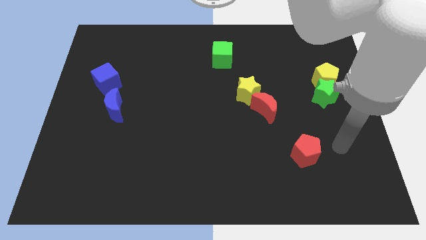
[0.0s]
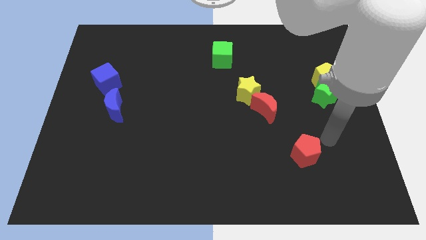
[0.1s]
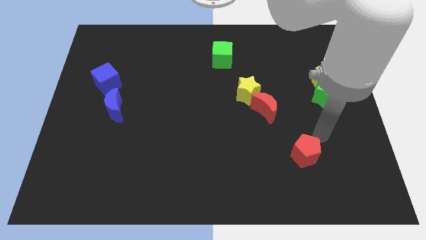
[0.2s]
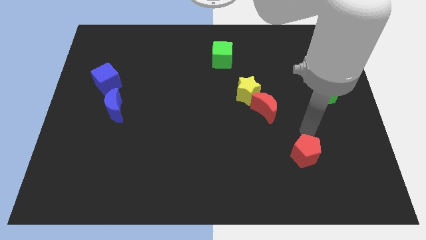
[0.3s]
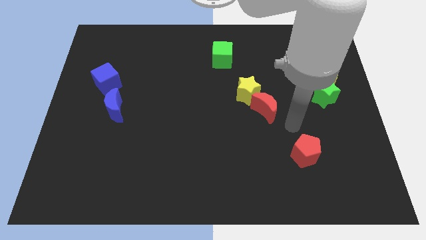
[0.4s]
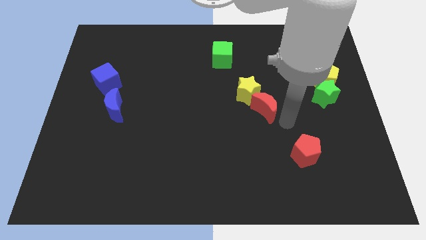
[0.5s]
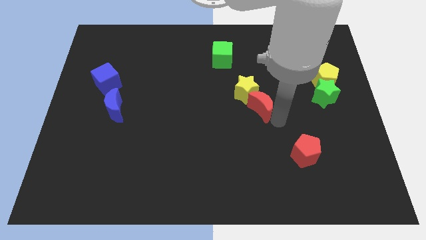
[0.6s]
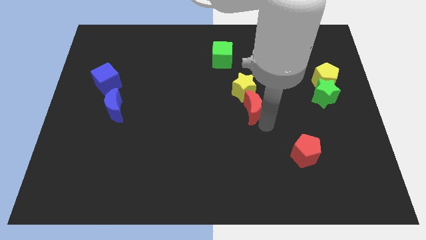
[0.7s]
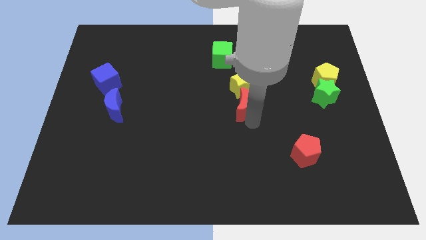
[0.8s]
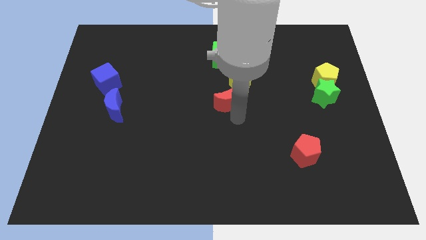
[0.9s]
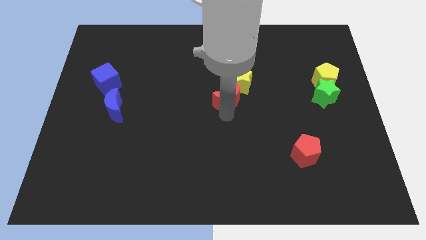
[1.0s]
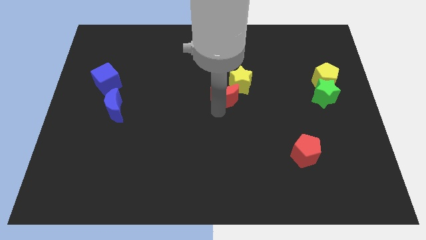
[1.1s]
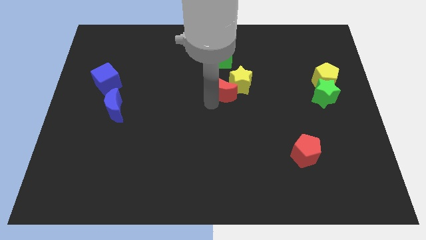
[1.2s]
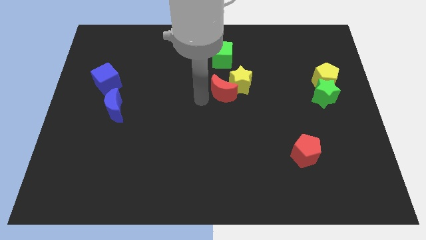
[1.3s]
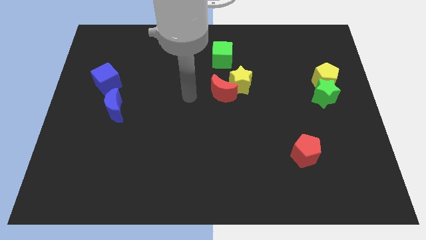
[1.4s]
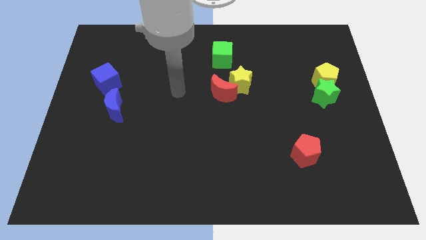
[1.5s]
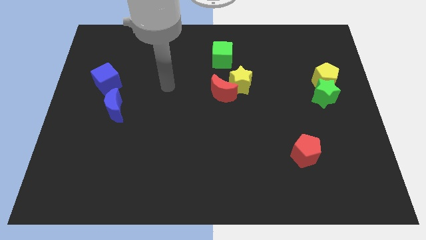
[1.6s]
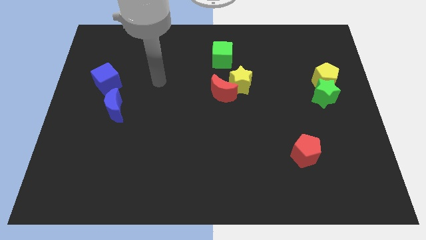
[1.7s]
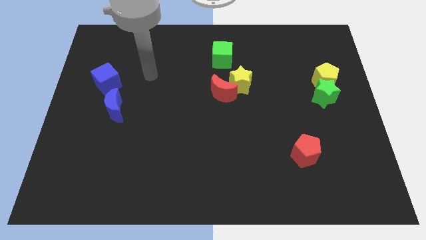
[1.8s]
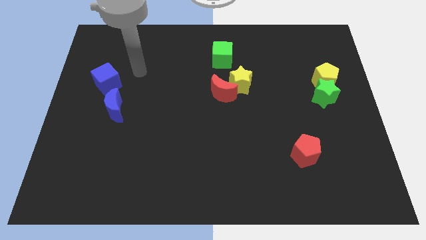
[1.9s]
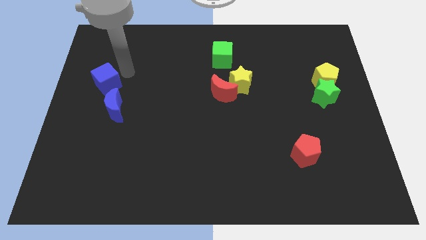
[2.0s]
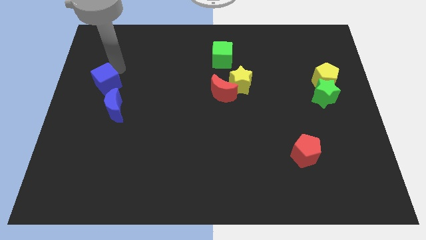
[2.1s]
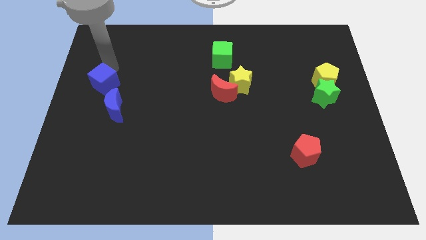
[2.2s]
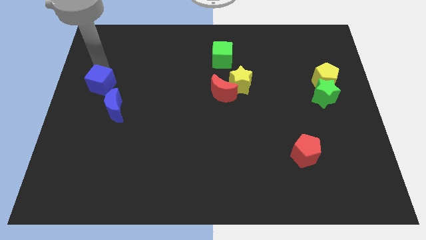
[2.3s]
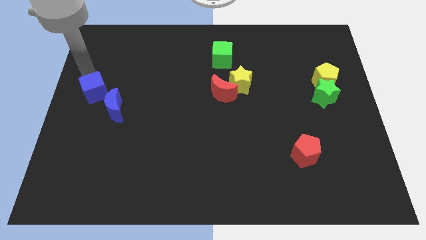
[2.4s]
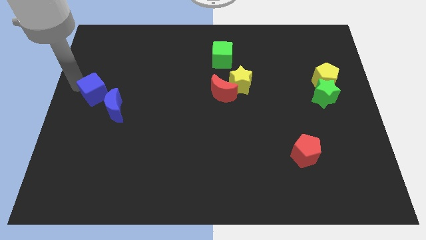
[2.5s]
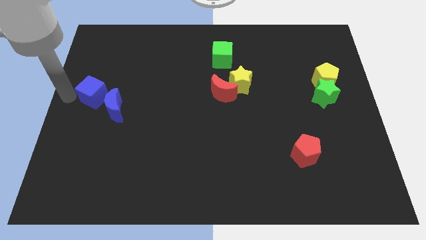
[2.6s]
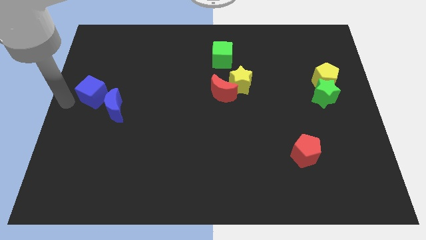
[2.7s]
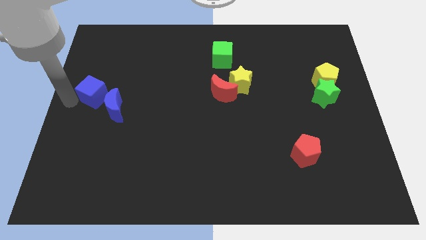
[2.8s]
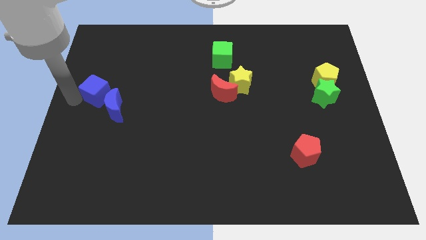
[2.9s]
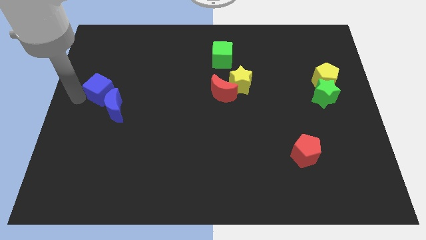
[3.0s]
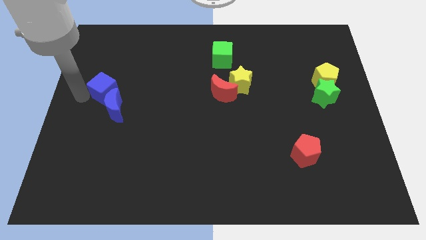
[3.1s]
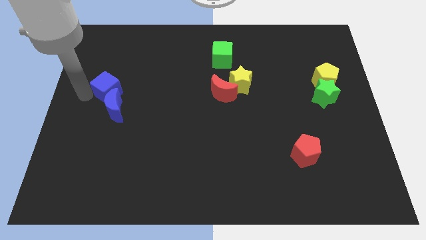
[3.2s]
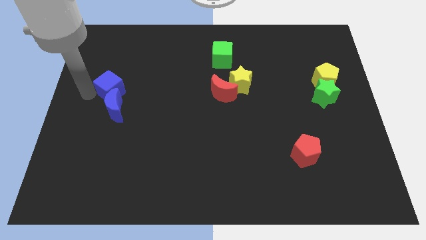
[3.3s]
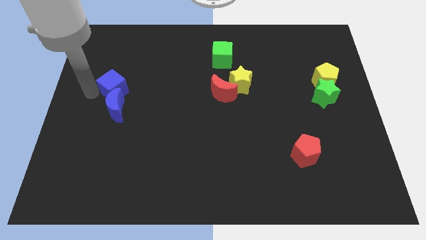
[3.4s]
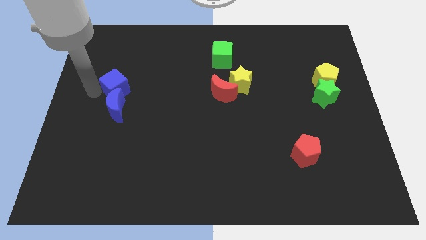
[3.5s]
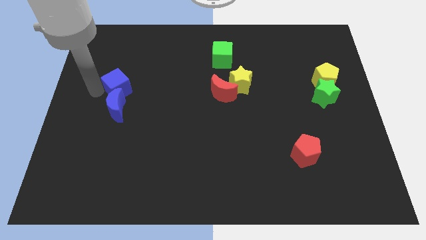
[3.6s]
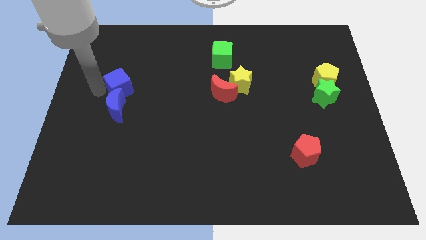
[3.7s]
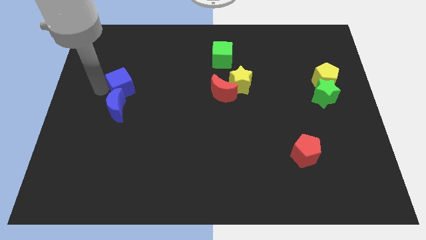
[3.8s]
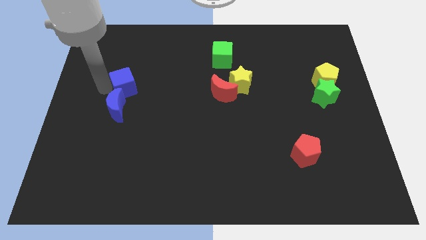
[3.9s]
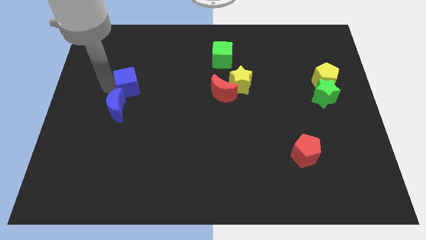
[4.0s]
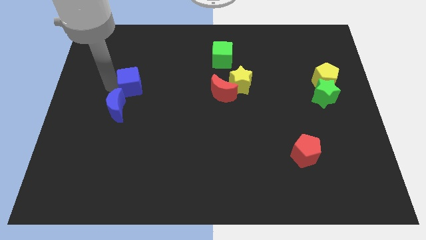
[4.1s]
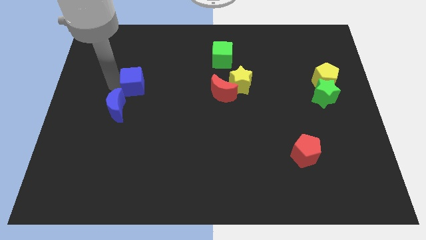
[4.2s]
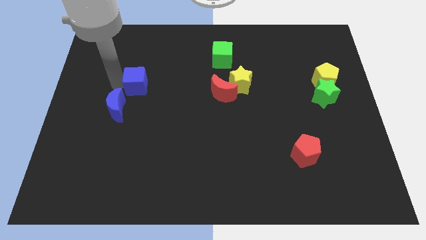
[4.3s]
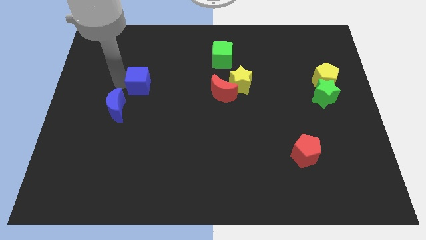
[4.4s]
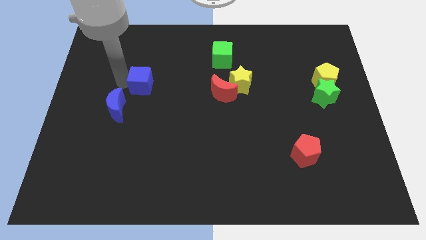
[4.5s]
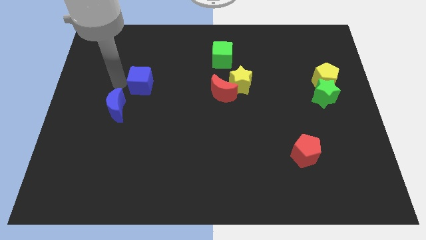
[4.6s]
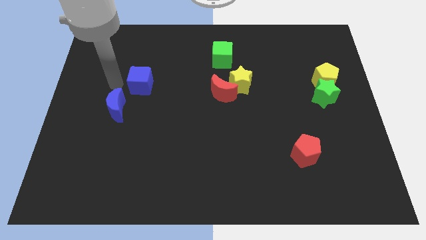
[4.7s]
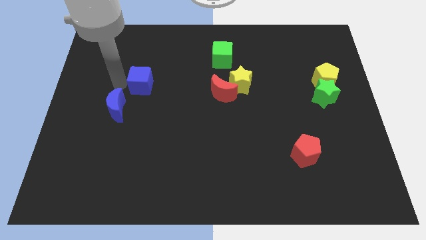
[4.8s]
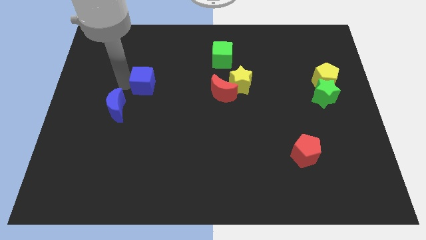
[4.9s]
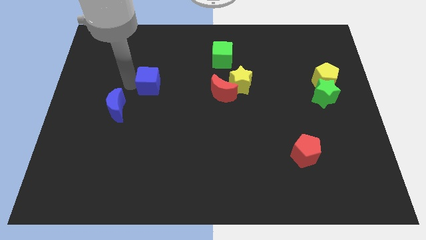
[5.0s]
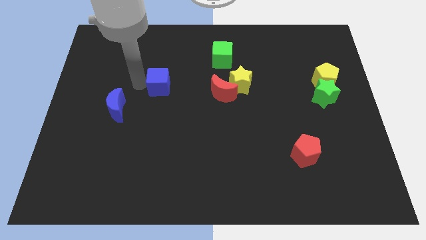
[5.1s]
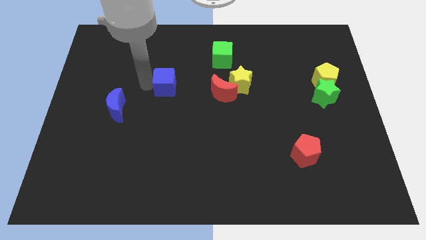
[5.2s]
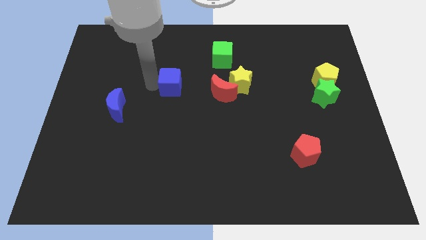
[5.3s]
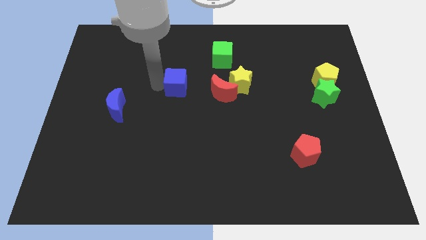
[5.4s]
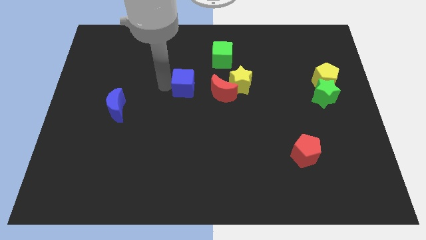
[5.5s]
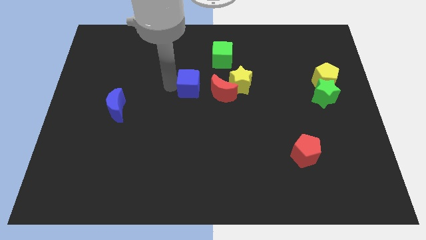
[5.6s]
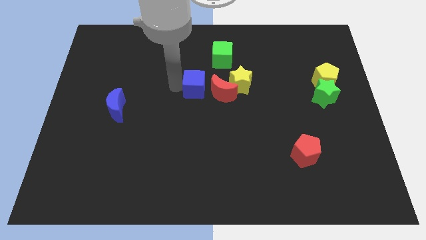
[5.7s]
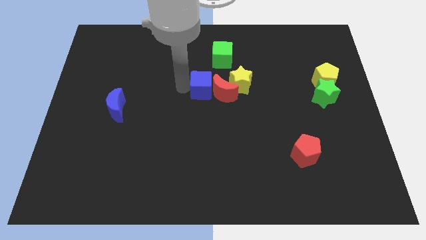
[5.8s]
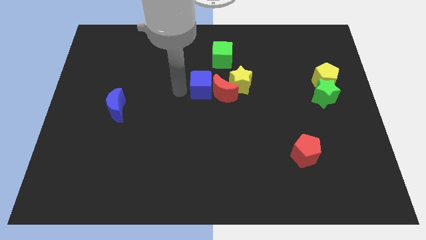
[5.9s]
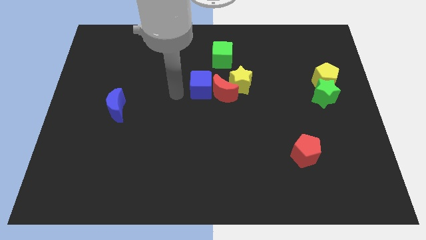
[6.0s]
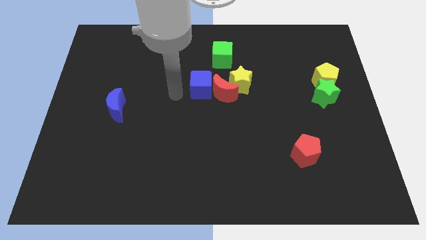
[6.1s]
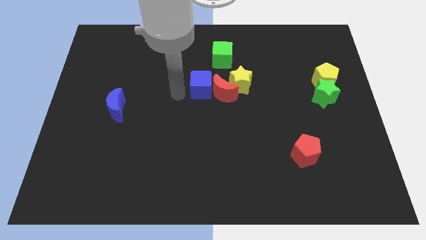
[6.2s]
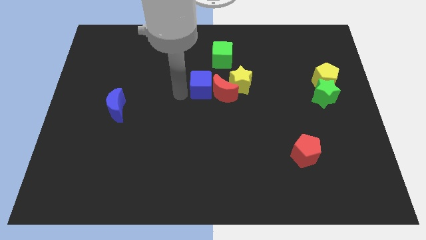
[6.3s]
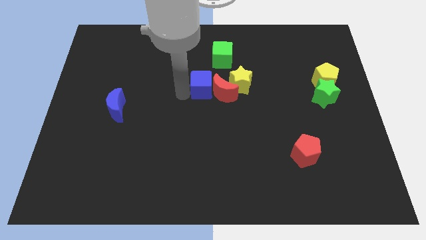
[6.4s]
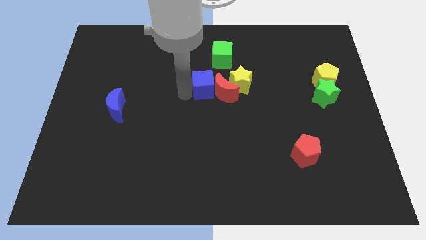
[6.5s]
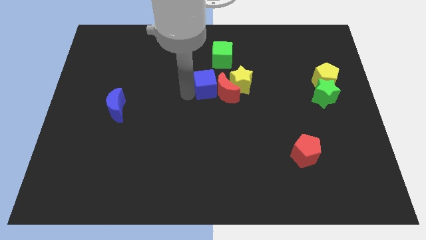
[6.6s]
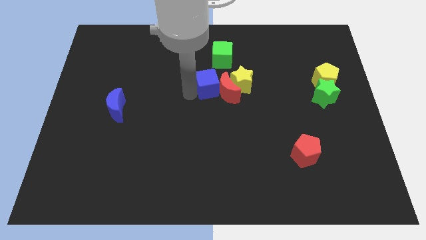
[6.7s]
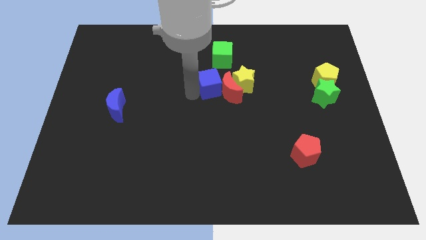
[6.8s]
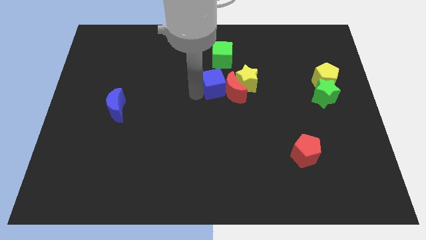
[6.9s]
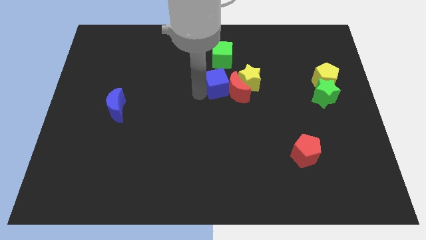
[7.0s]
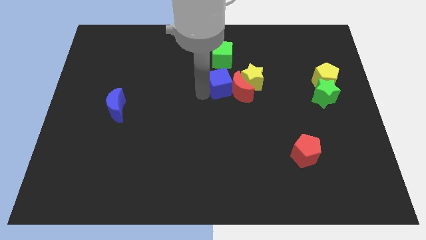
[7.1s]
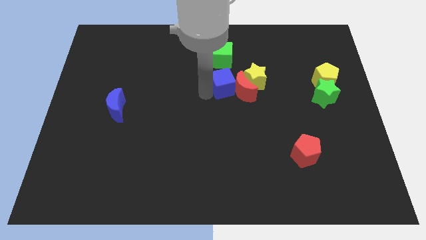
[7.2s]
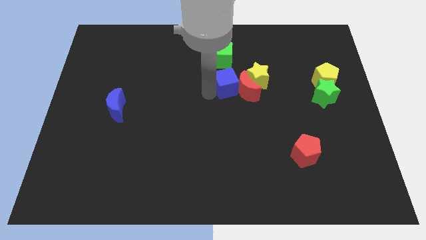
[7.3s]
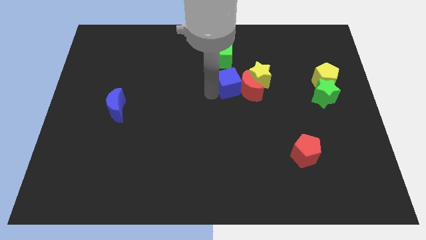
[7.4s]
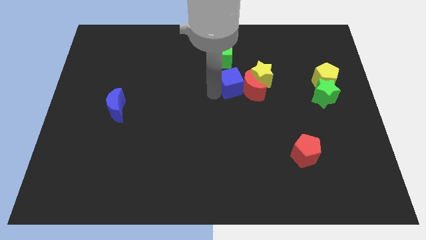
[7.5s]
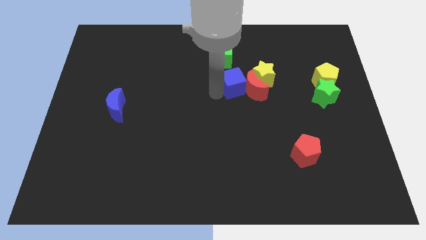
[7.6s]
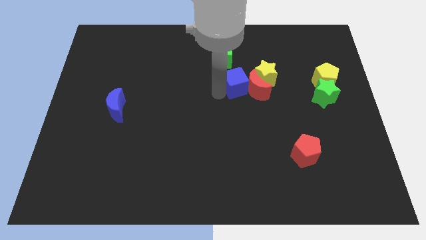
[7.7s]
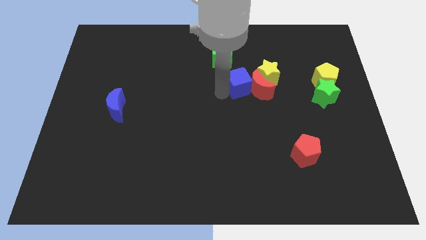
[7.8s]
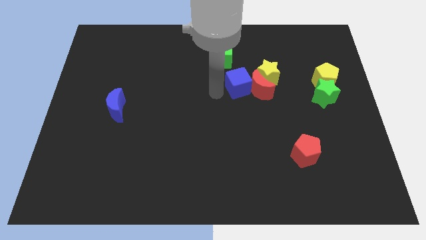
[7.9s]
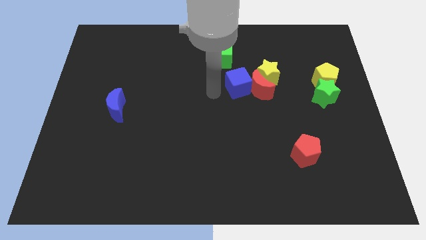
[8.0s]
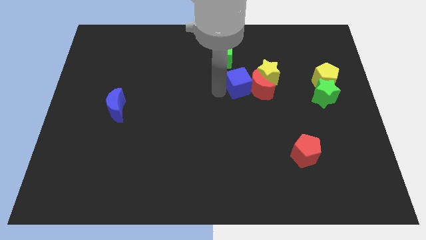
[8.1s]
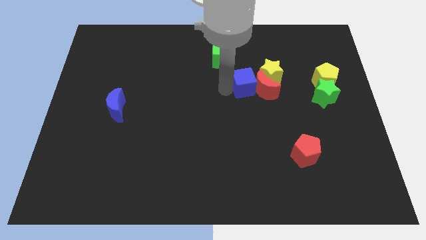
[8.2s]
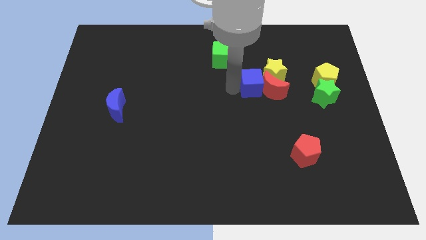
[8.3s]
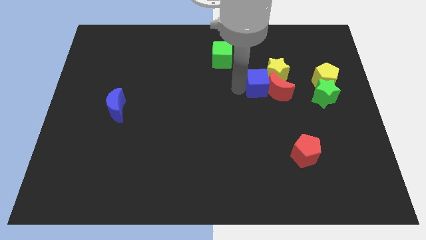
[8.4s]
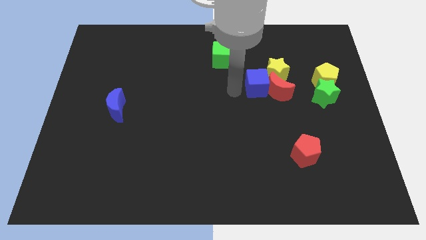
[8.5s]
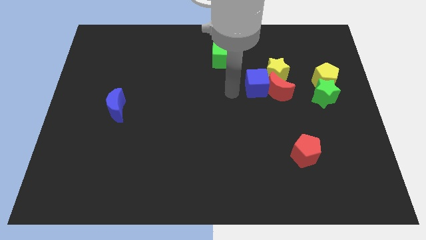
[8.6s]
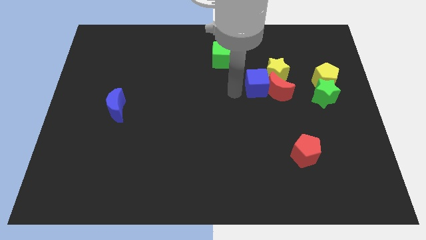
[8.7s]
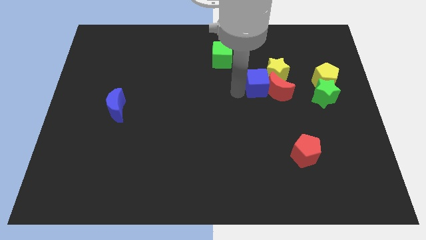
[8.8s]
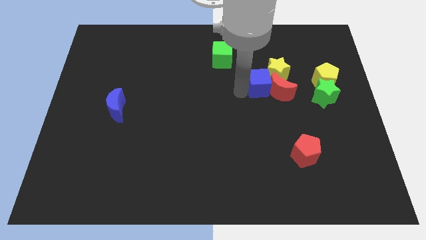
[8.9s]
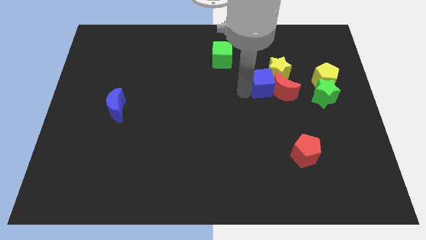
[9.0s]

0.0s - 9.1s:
move the blue cube just left of the yellow pentagon
